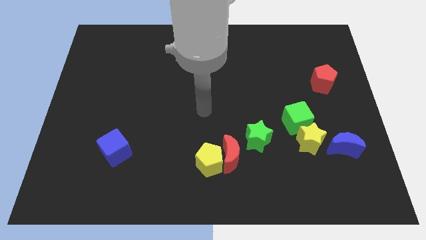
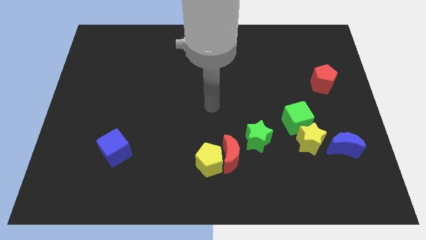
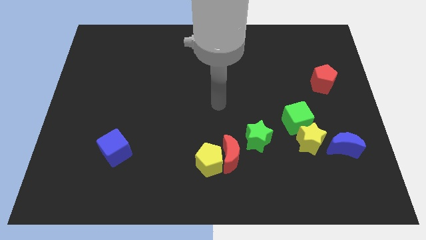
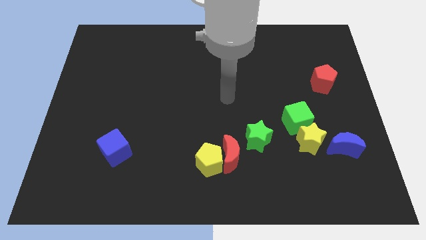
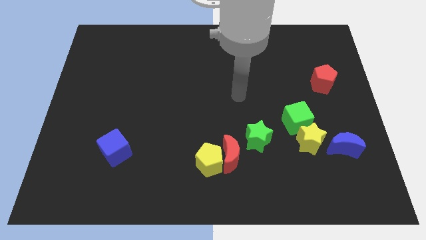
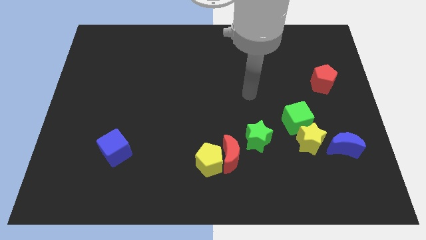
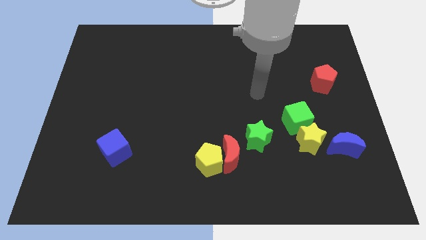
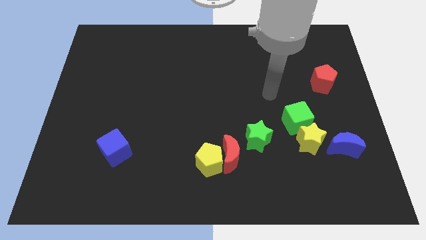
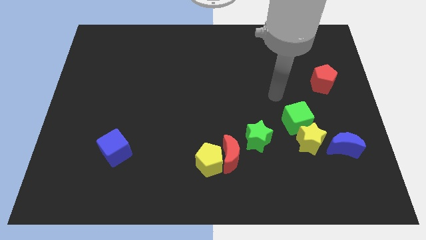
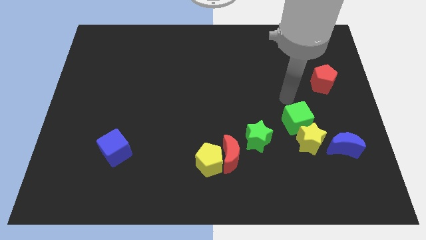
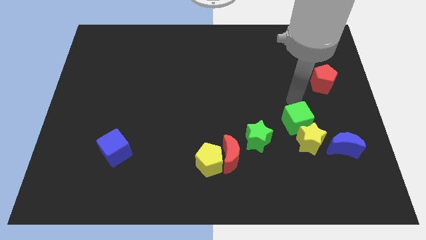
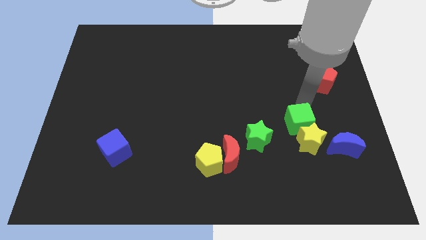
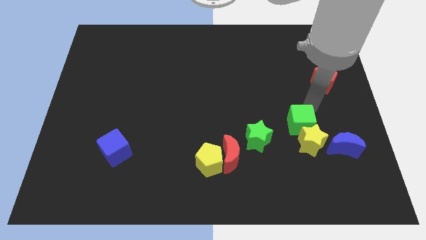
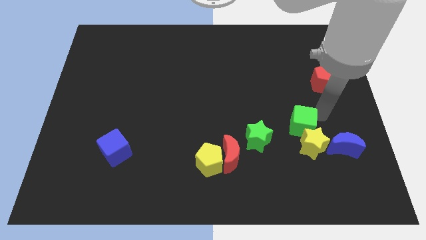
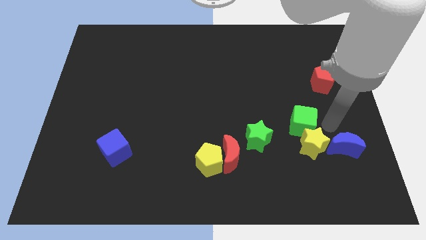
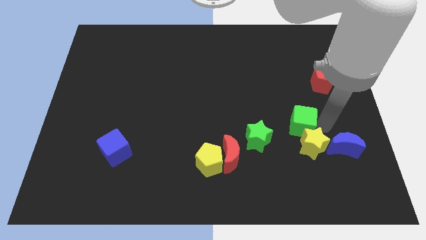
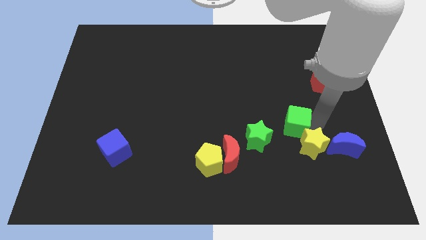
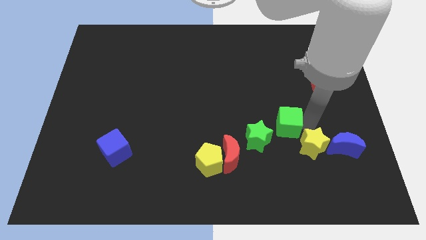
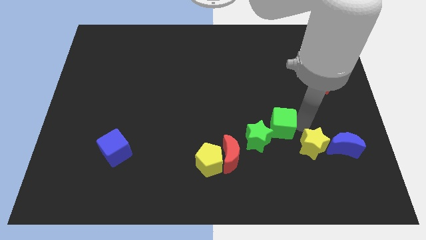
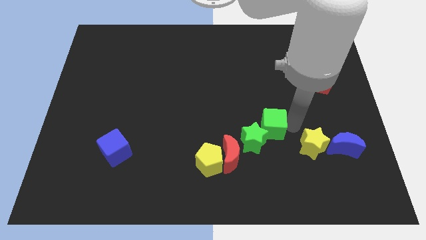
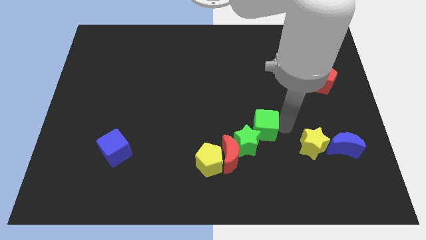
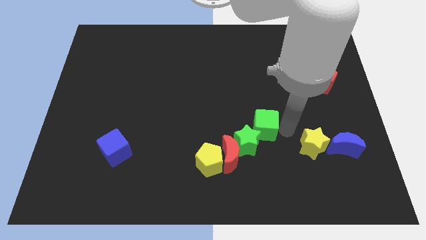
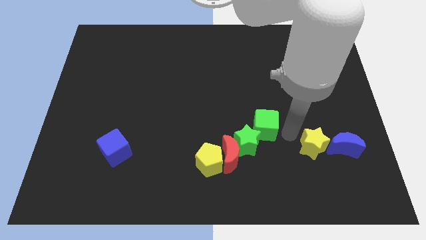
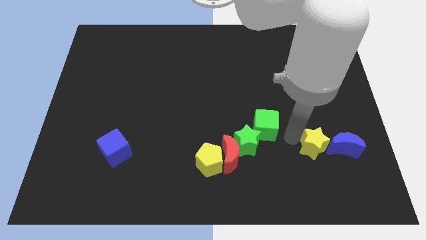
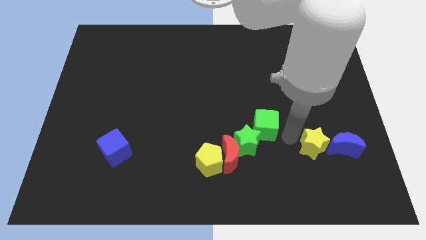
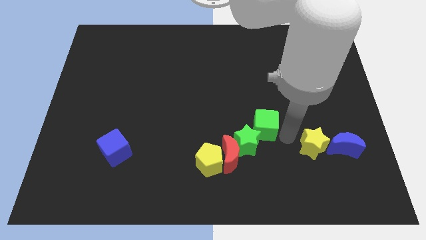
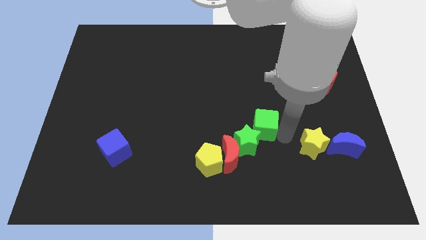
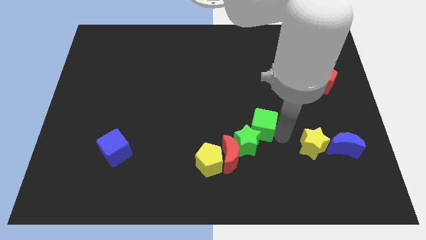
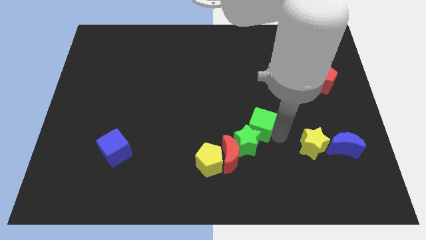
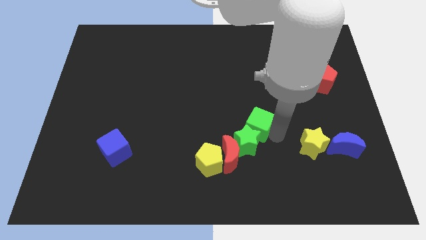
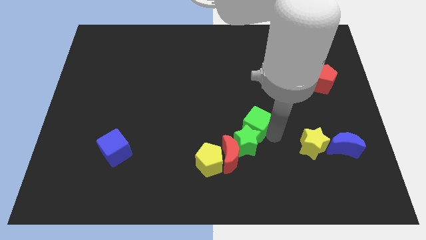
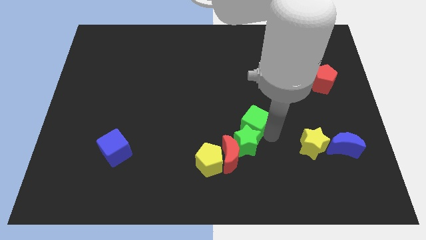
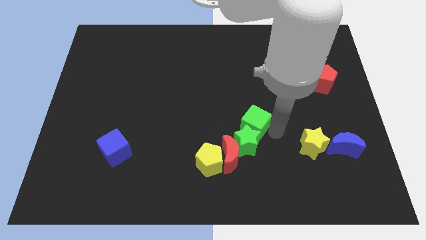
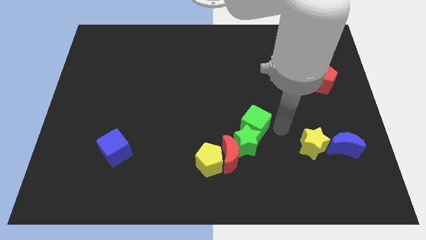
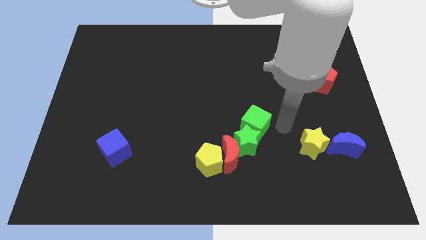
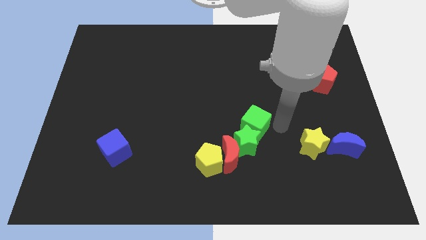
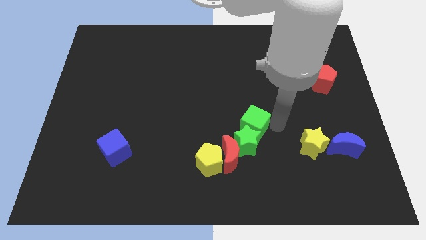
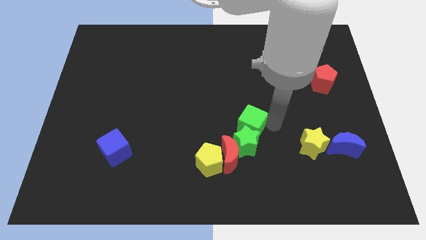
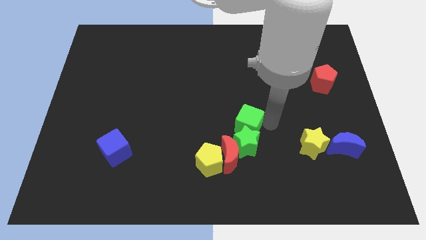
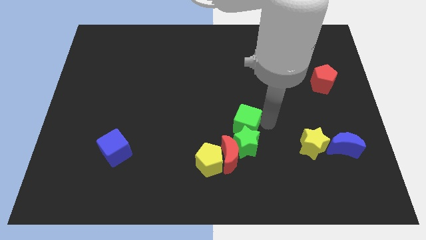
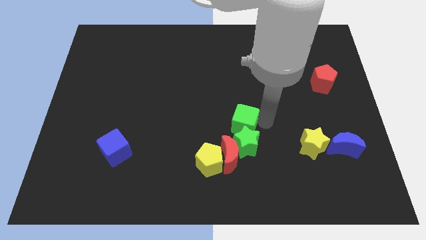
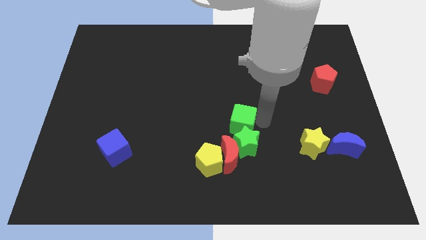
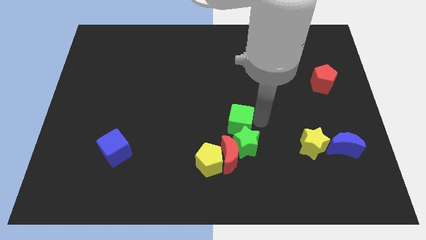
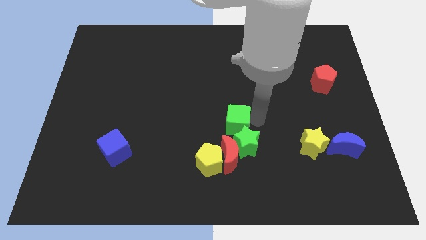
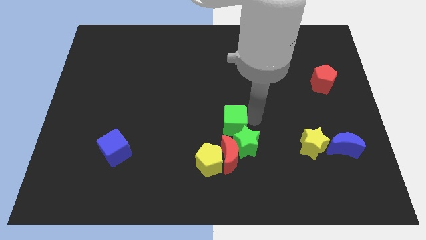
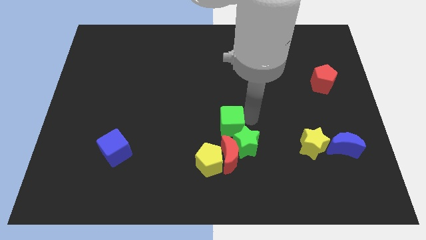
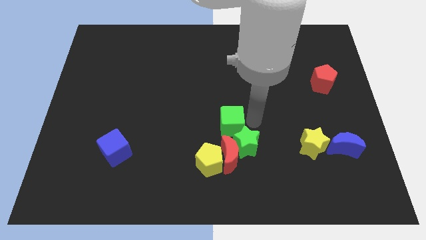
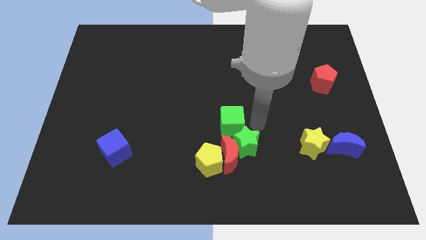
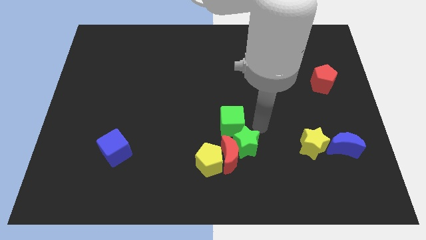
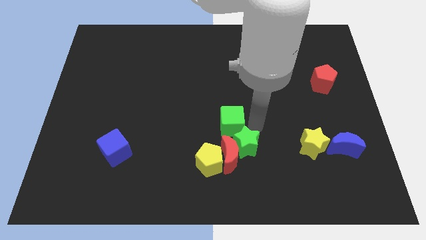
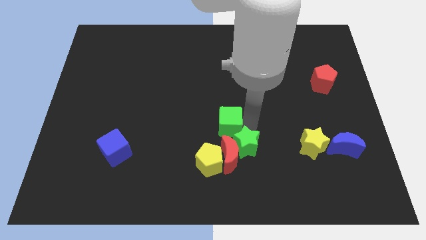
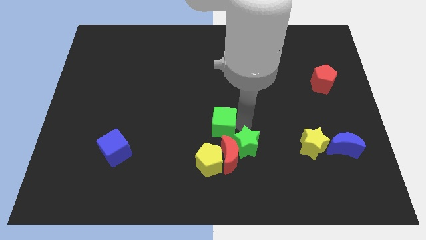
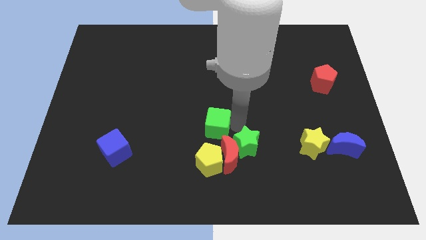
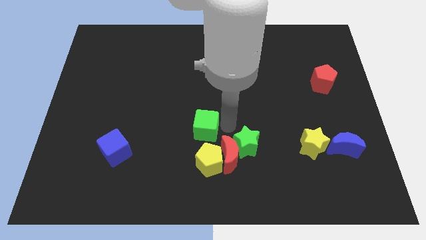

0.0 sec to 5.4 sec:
move the green cube to the left

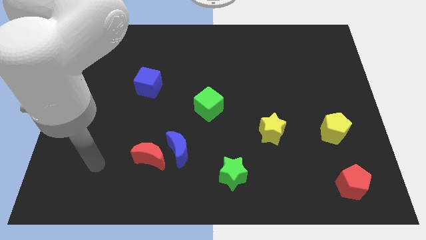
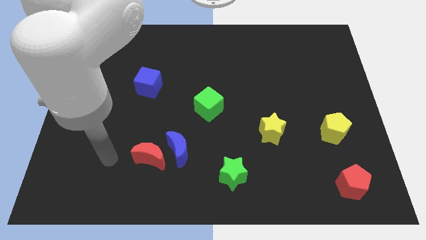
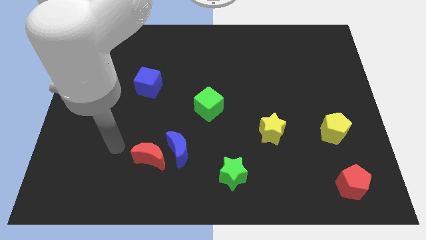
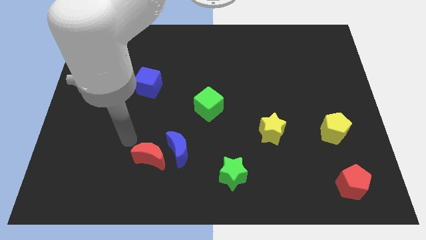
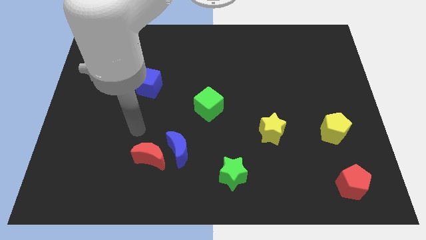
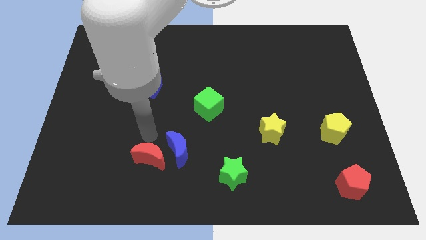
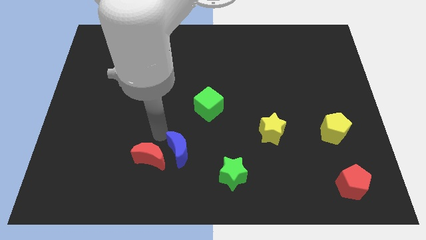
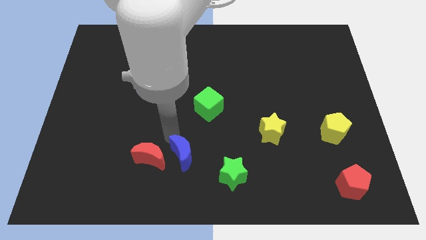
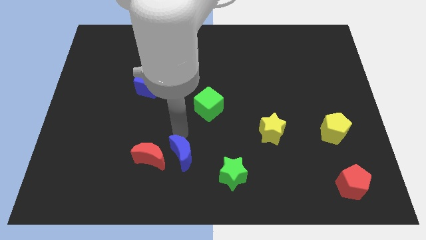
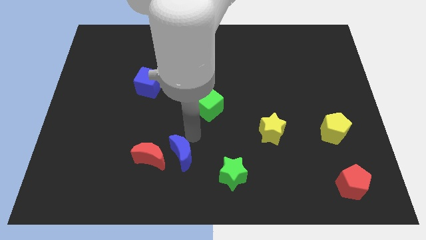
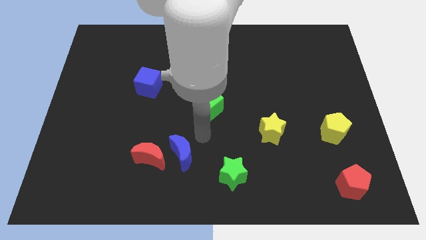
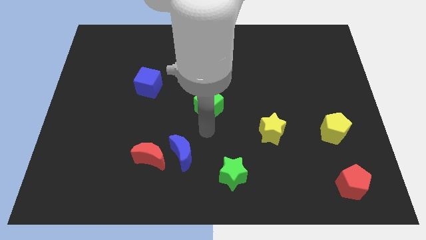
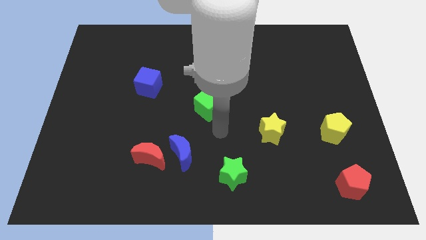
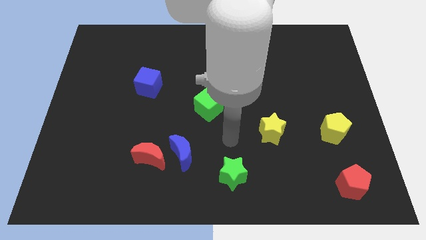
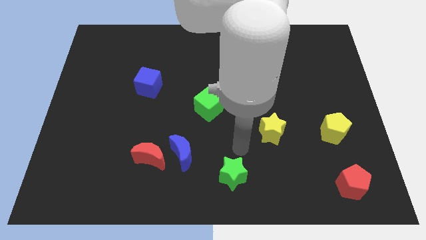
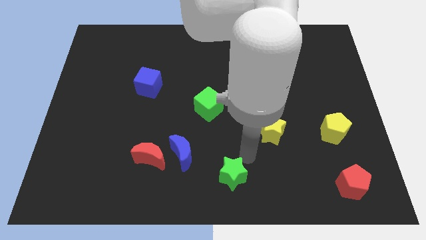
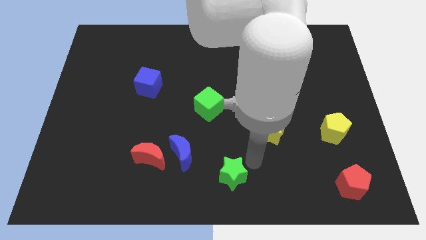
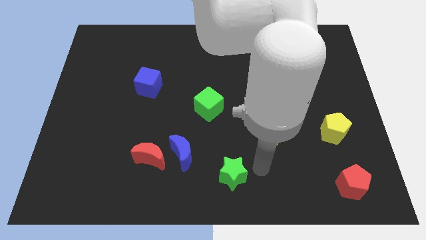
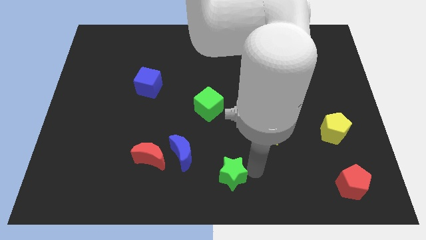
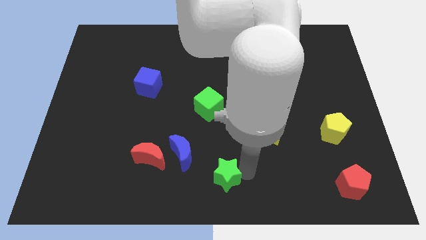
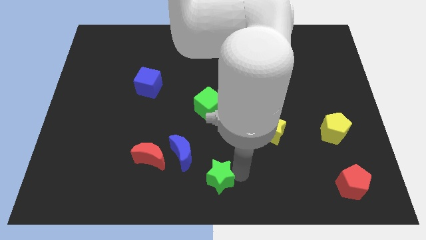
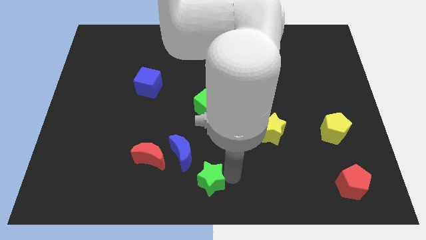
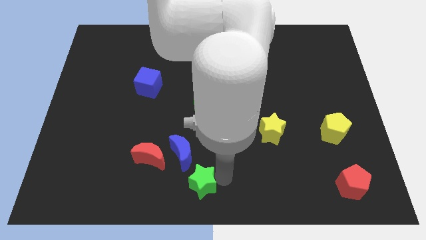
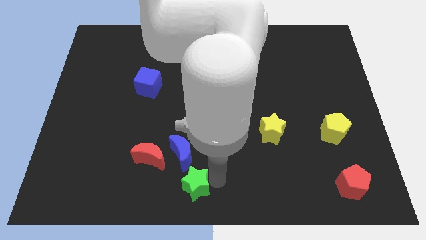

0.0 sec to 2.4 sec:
slide the green star slightly to the left

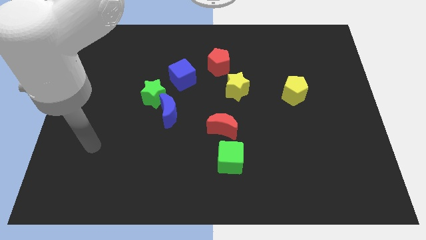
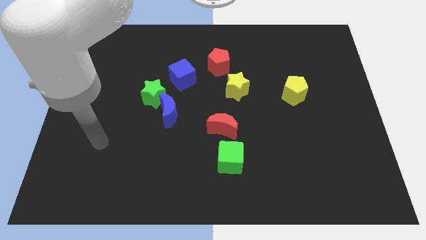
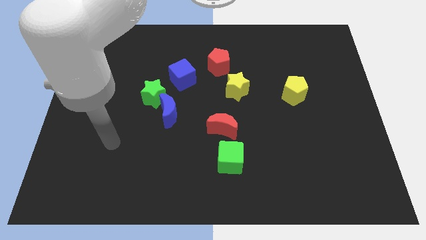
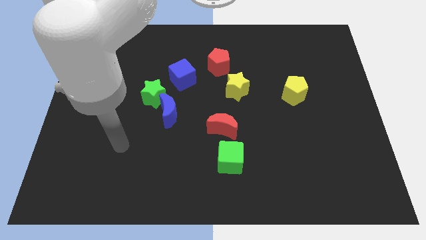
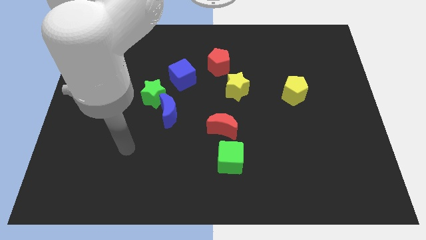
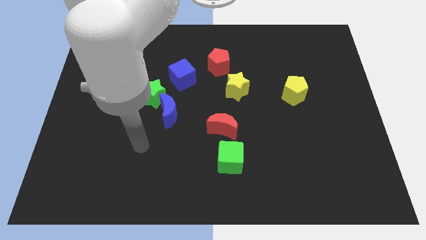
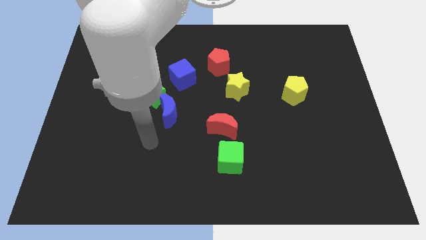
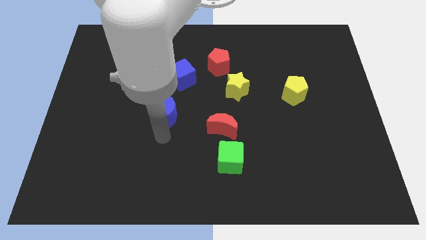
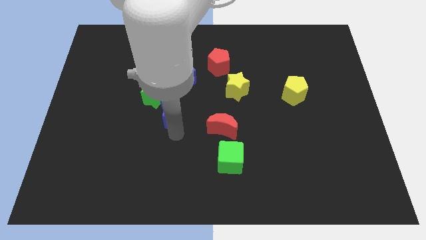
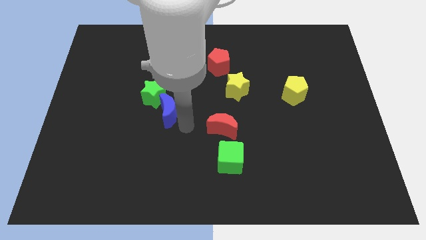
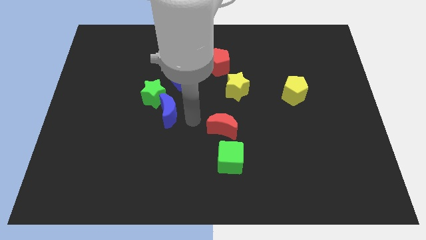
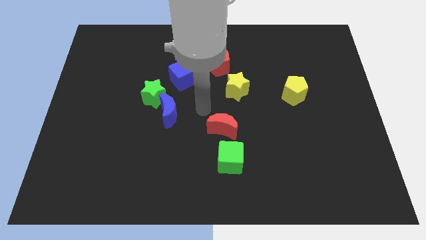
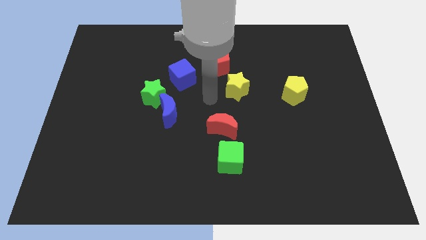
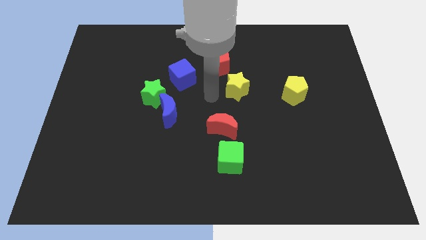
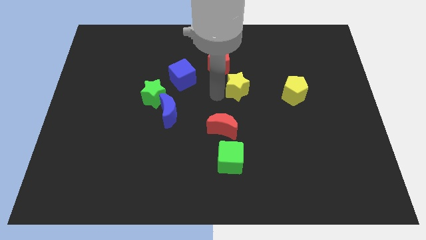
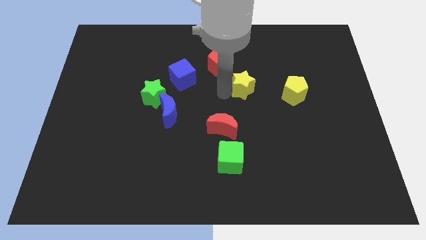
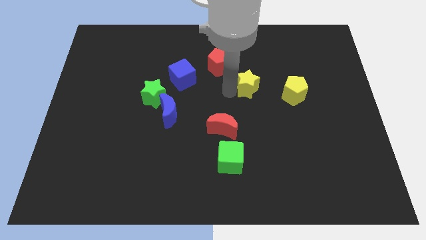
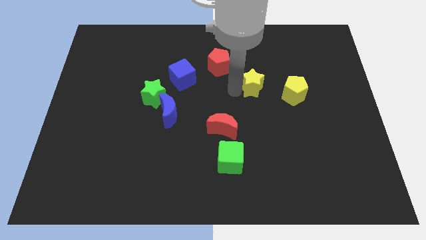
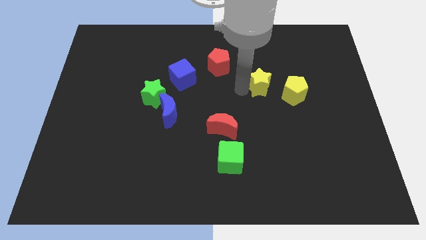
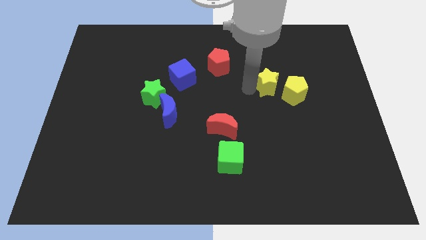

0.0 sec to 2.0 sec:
slightly move the yellow star right
